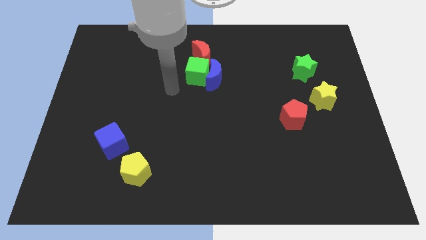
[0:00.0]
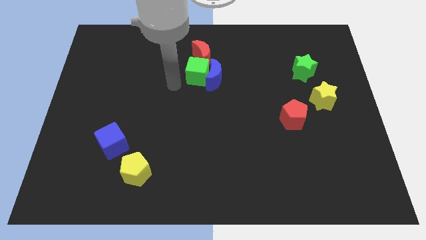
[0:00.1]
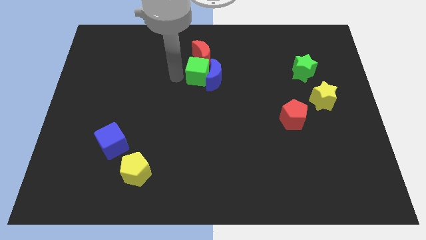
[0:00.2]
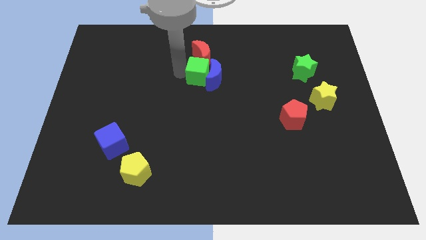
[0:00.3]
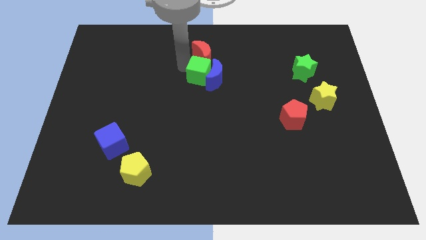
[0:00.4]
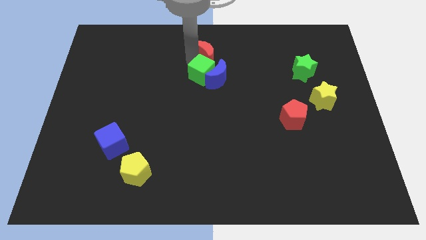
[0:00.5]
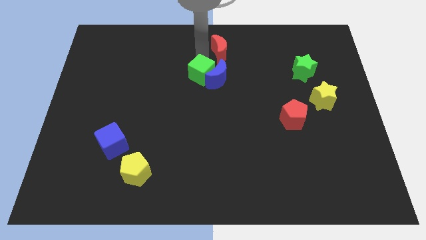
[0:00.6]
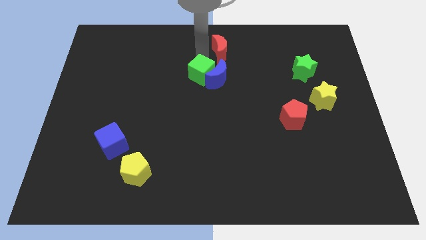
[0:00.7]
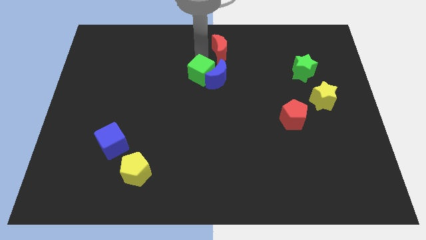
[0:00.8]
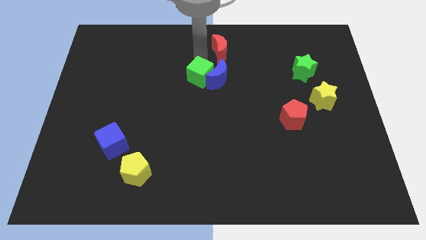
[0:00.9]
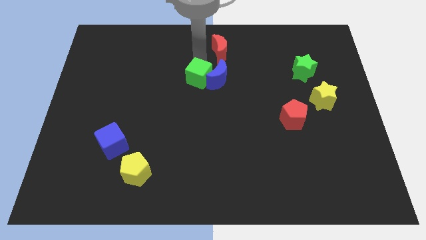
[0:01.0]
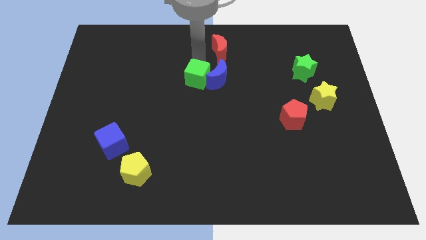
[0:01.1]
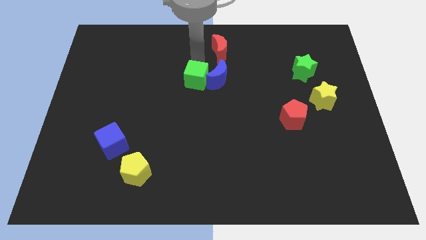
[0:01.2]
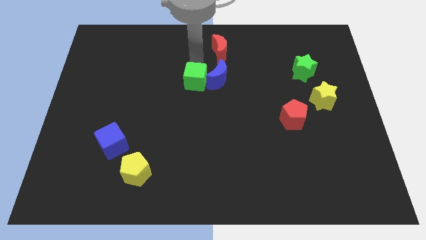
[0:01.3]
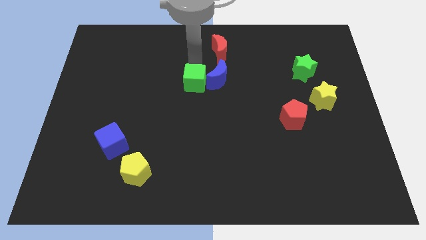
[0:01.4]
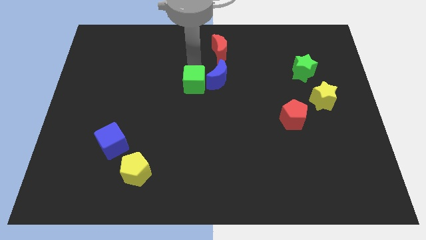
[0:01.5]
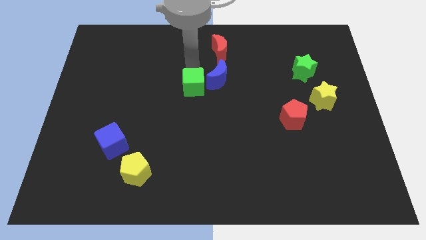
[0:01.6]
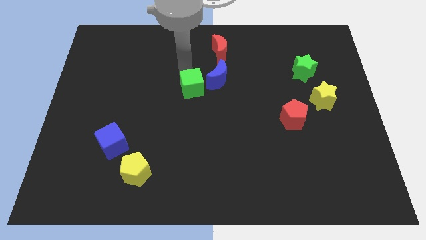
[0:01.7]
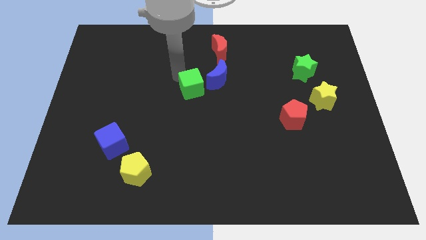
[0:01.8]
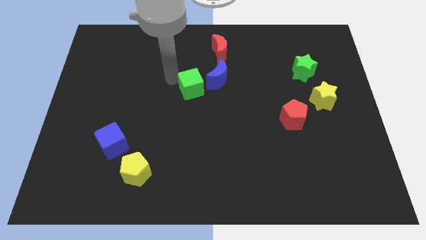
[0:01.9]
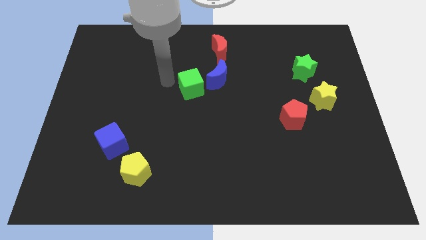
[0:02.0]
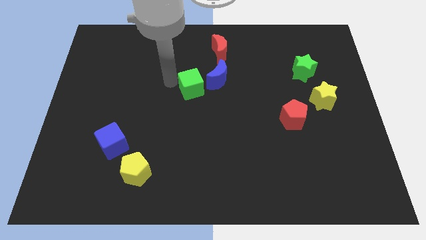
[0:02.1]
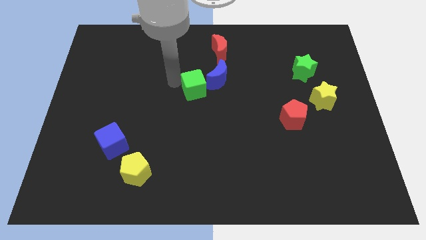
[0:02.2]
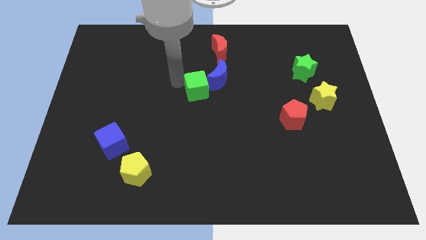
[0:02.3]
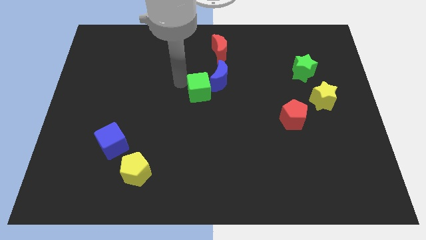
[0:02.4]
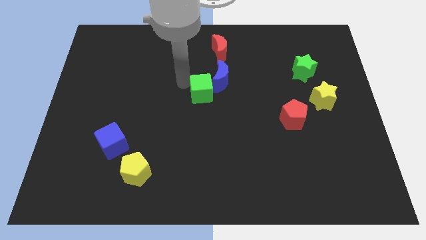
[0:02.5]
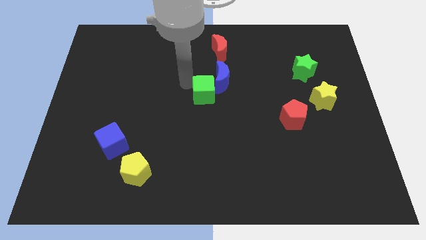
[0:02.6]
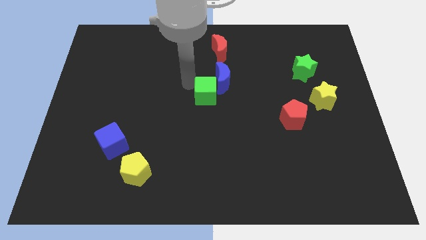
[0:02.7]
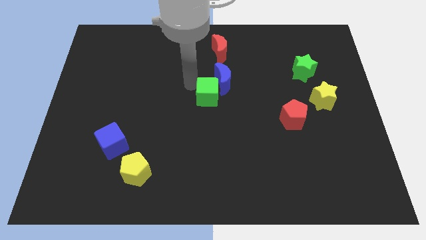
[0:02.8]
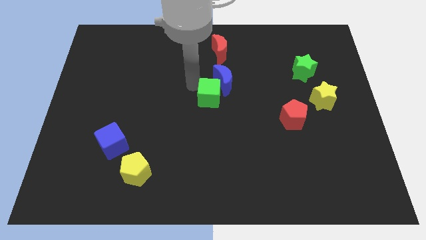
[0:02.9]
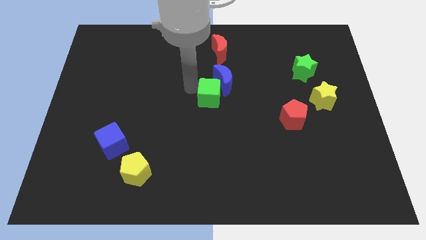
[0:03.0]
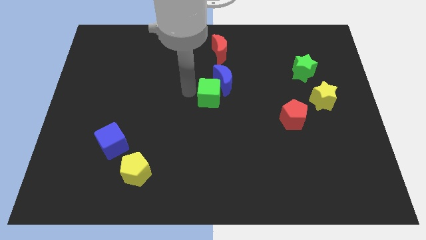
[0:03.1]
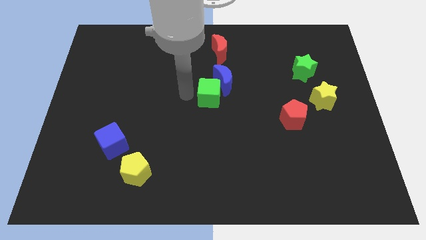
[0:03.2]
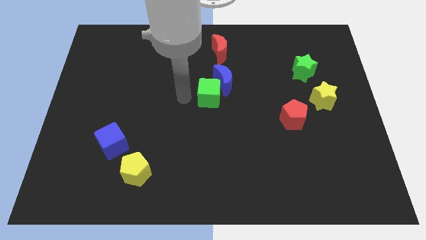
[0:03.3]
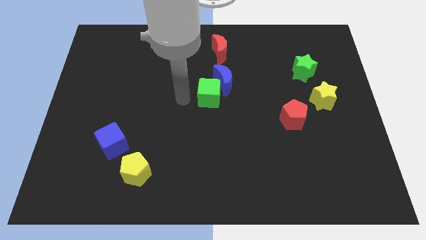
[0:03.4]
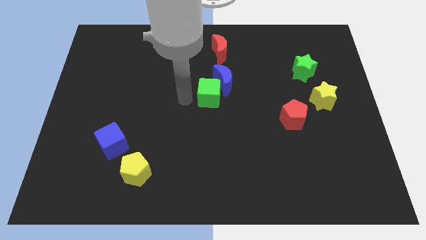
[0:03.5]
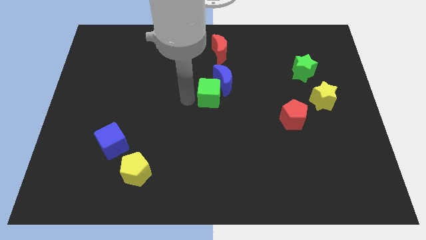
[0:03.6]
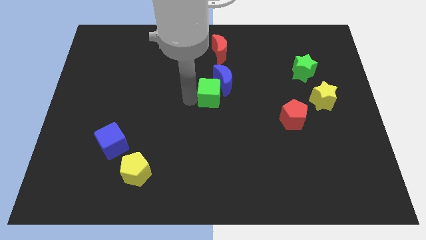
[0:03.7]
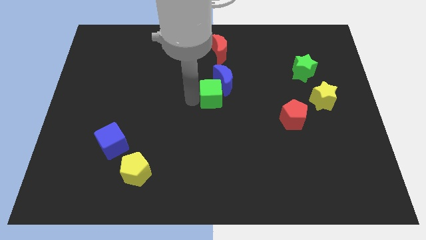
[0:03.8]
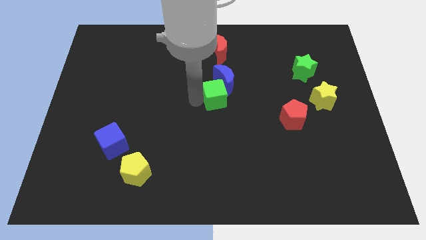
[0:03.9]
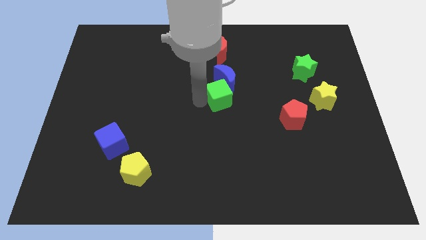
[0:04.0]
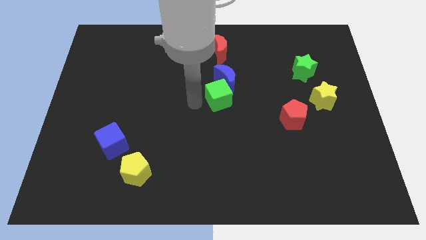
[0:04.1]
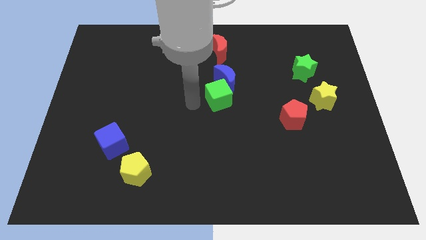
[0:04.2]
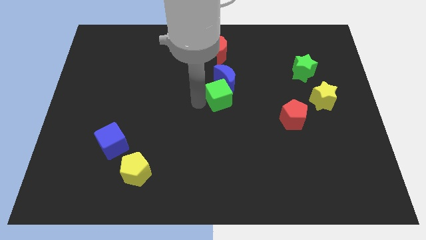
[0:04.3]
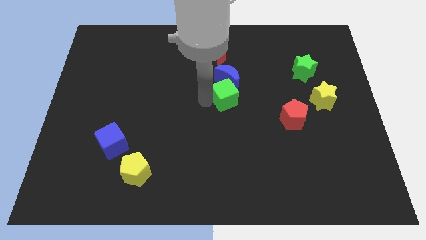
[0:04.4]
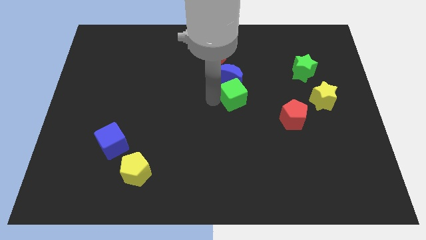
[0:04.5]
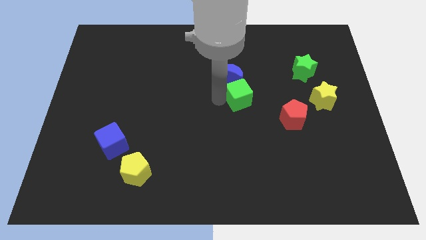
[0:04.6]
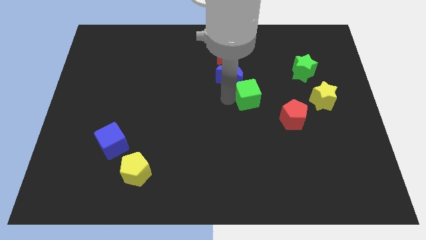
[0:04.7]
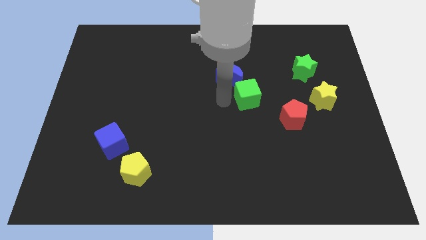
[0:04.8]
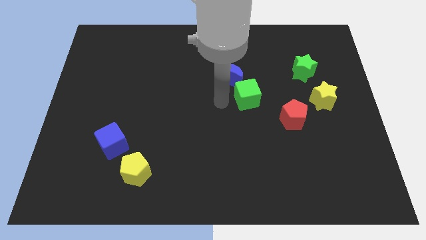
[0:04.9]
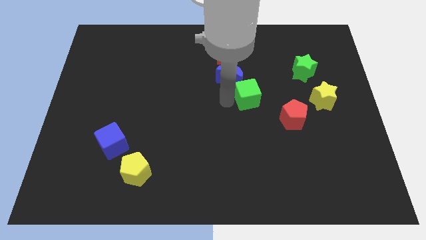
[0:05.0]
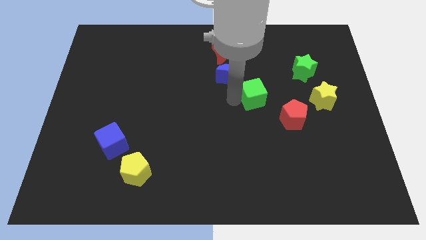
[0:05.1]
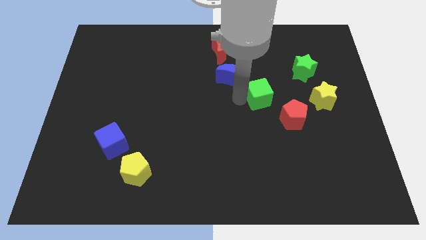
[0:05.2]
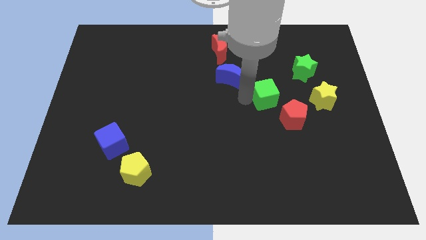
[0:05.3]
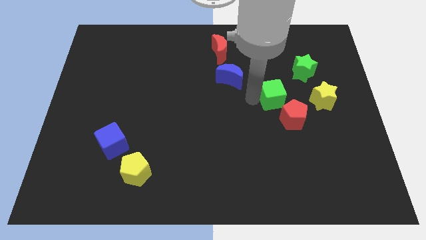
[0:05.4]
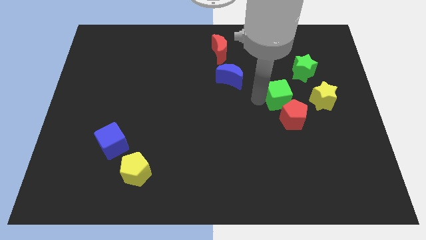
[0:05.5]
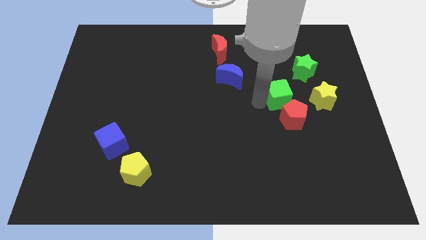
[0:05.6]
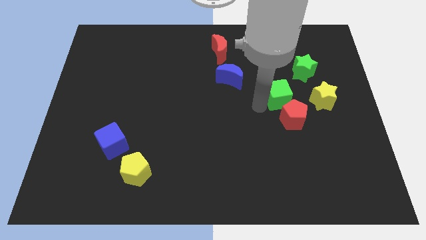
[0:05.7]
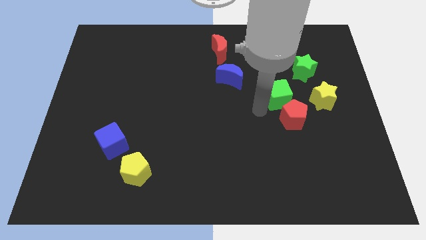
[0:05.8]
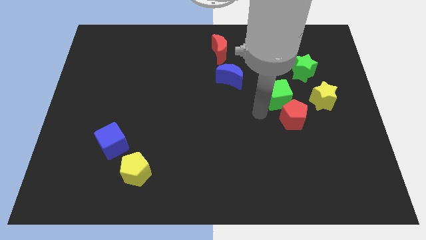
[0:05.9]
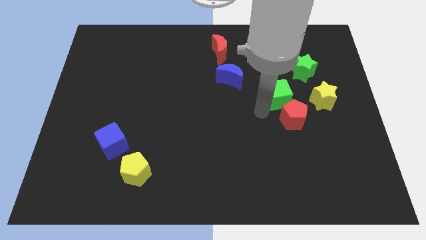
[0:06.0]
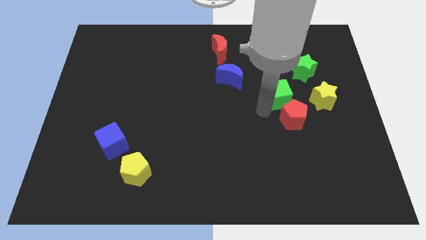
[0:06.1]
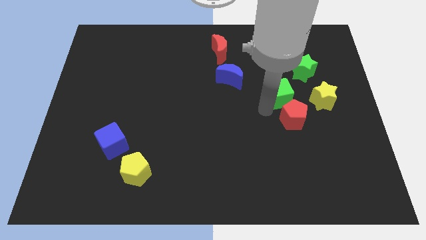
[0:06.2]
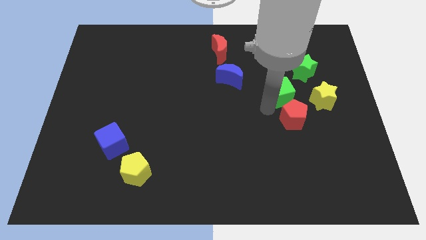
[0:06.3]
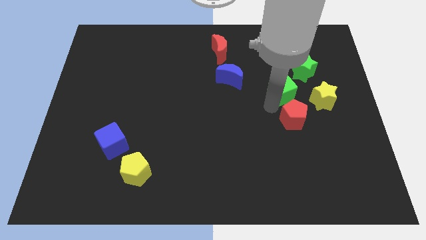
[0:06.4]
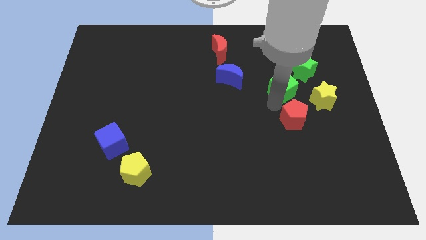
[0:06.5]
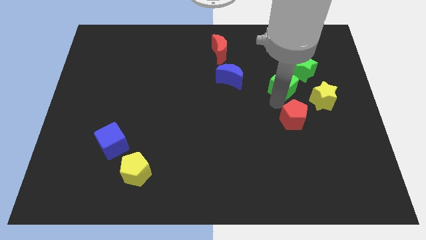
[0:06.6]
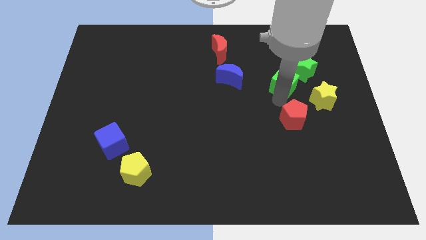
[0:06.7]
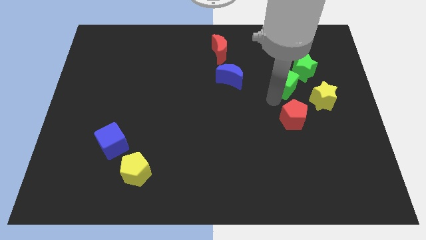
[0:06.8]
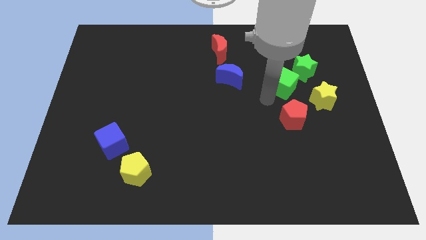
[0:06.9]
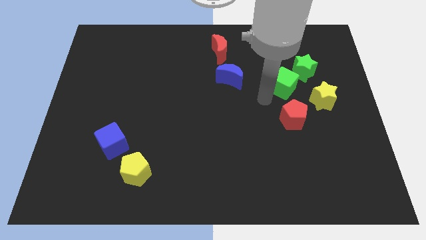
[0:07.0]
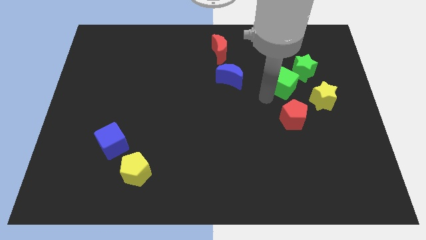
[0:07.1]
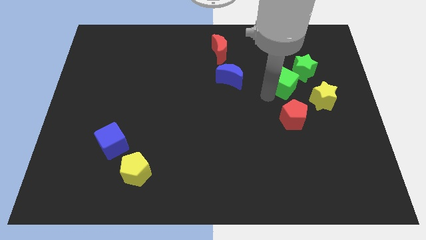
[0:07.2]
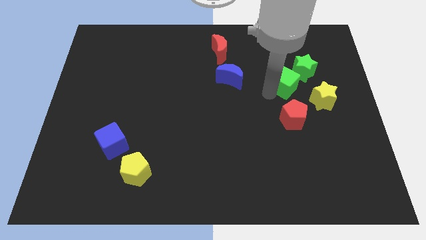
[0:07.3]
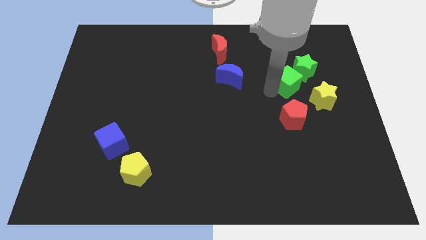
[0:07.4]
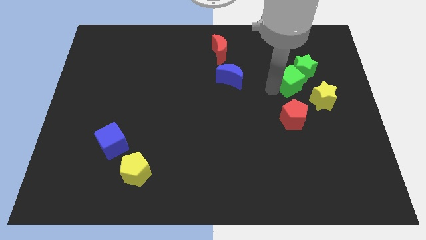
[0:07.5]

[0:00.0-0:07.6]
move the green cube towards the green star
